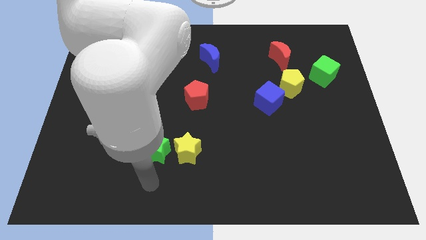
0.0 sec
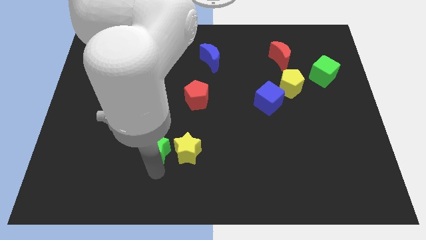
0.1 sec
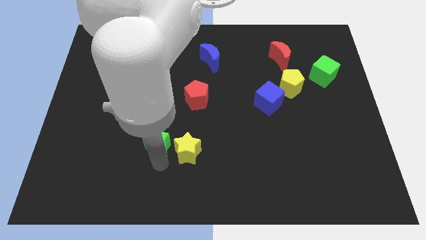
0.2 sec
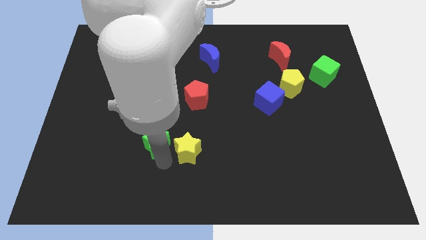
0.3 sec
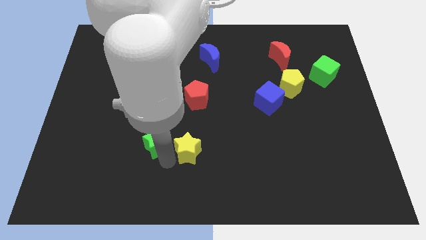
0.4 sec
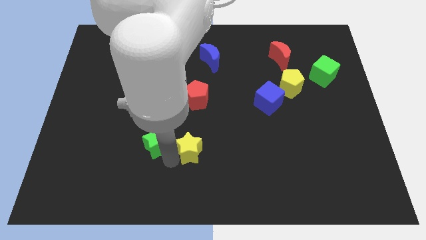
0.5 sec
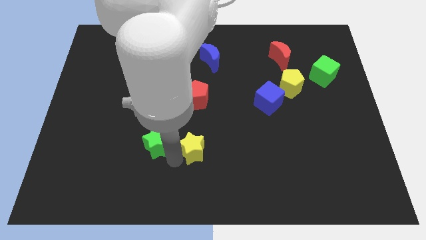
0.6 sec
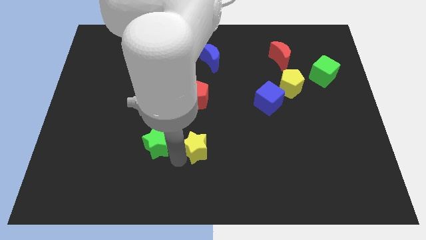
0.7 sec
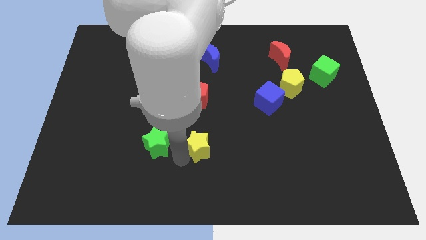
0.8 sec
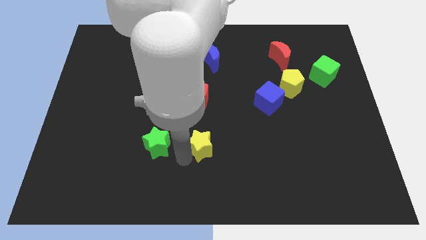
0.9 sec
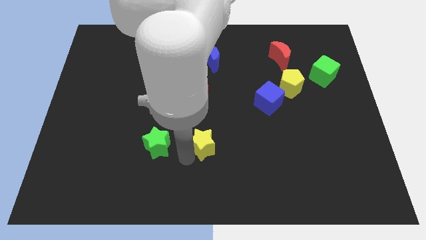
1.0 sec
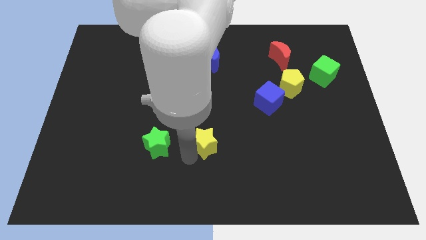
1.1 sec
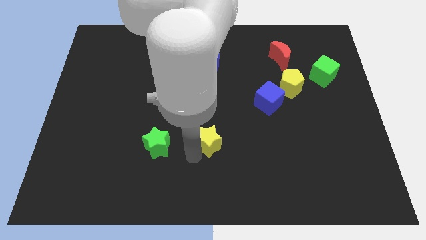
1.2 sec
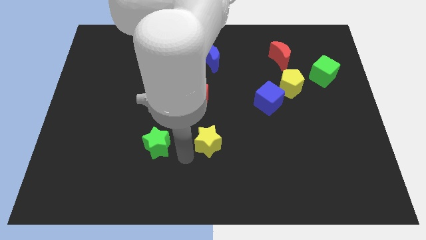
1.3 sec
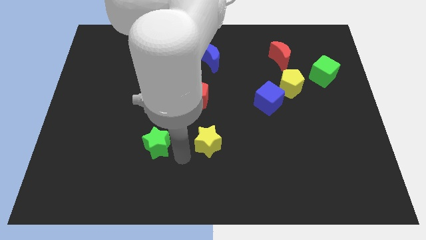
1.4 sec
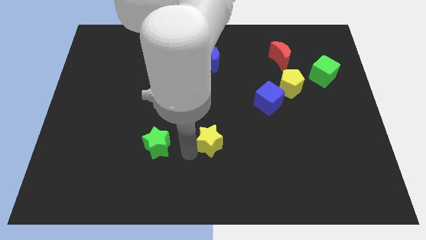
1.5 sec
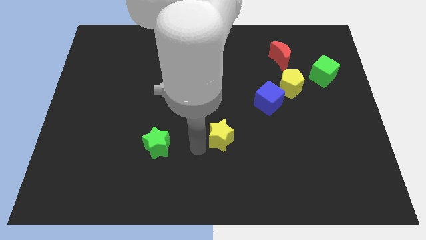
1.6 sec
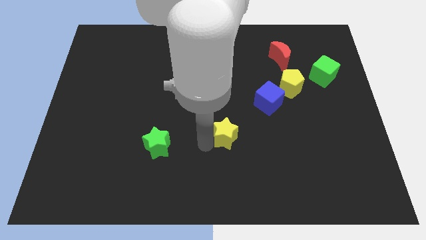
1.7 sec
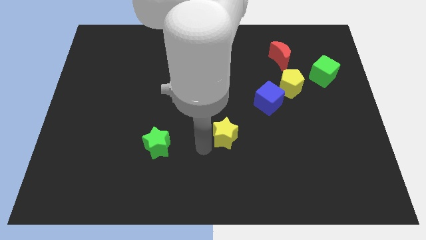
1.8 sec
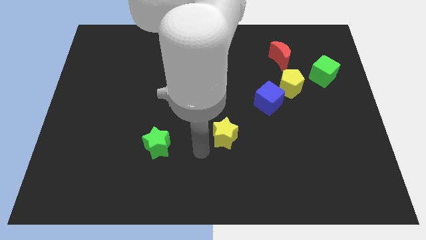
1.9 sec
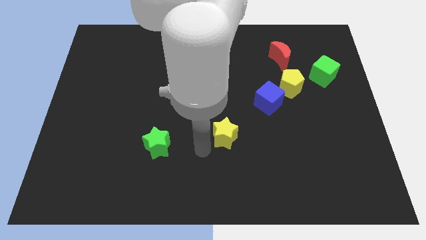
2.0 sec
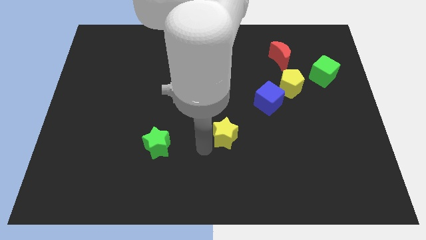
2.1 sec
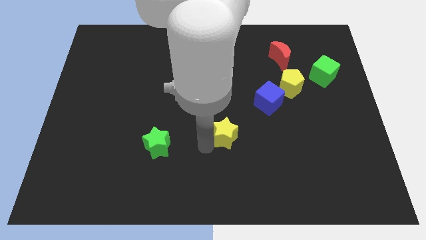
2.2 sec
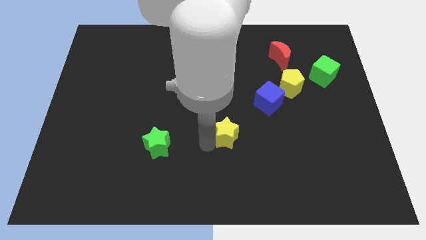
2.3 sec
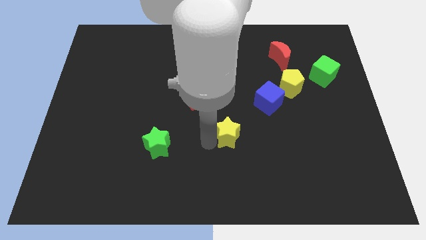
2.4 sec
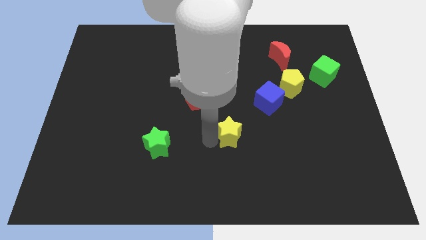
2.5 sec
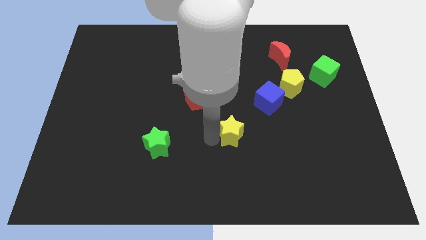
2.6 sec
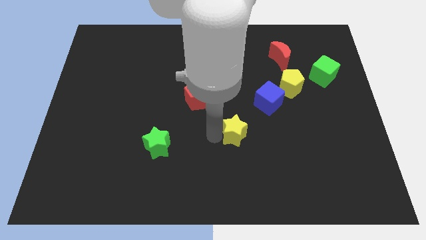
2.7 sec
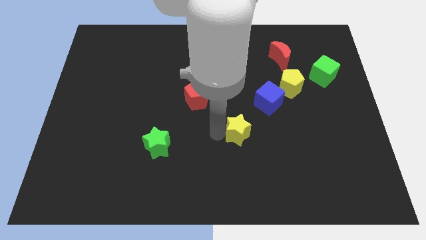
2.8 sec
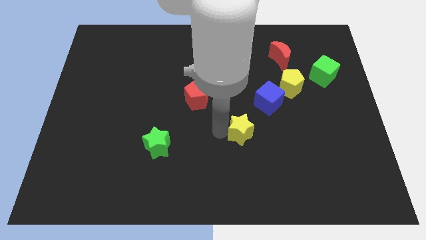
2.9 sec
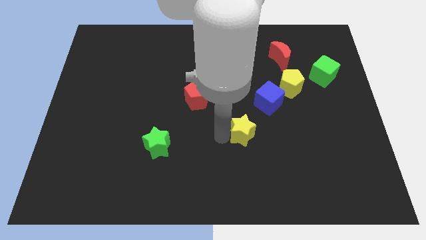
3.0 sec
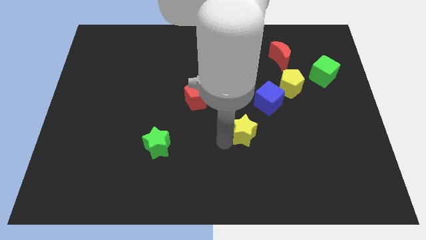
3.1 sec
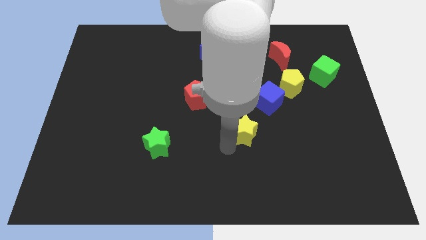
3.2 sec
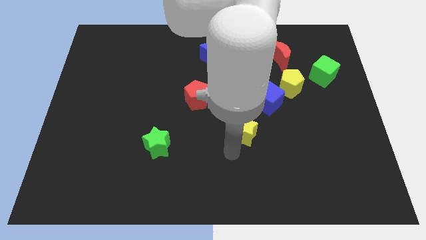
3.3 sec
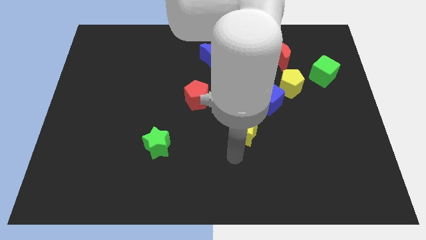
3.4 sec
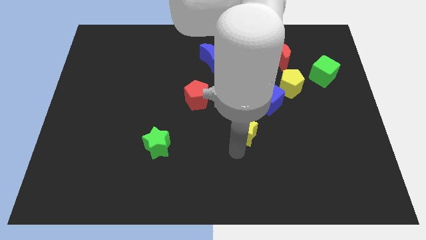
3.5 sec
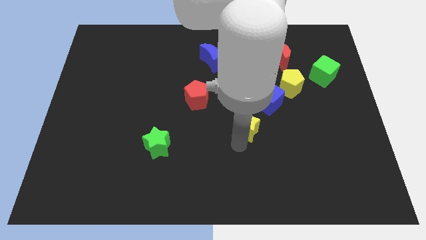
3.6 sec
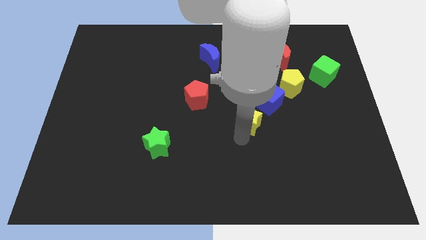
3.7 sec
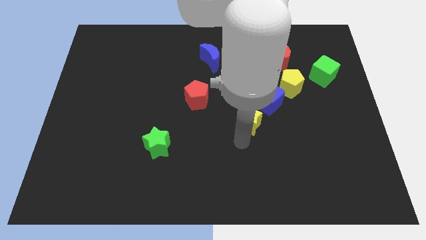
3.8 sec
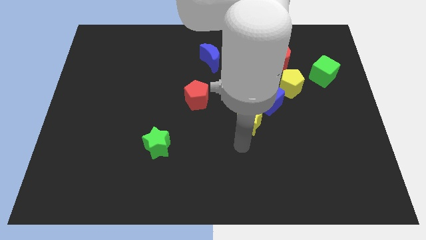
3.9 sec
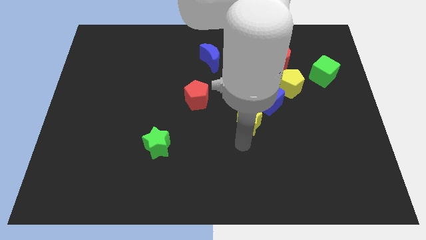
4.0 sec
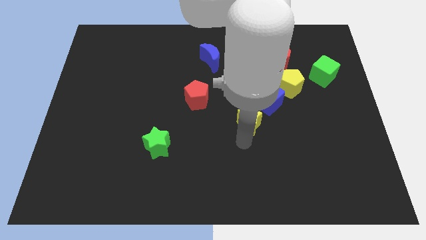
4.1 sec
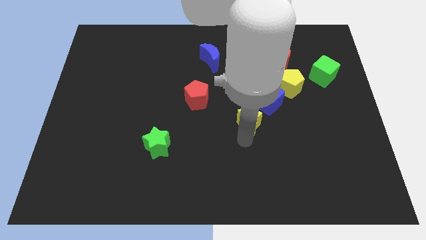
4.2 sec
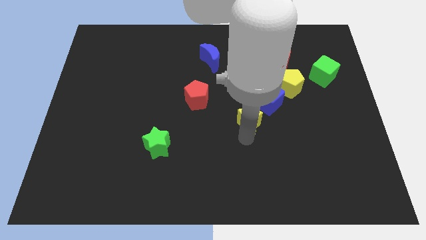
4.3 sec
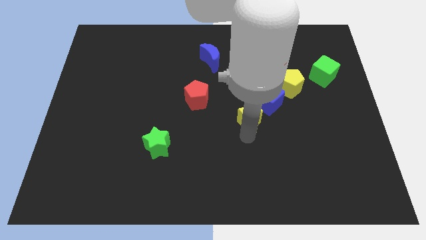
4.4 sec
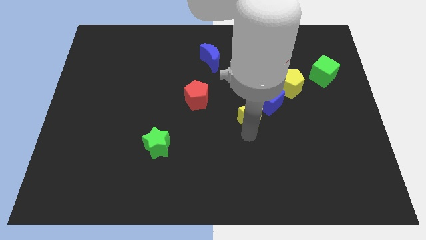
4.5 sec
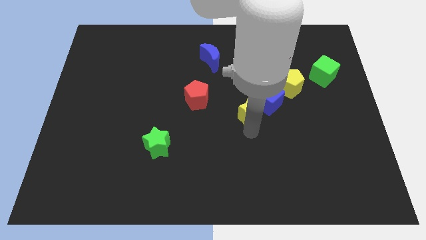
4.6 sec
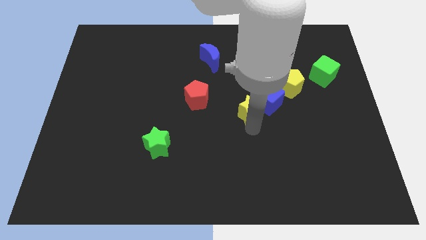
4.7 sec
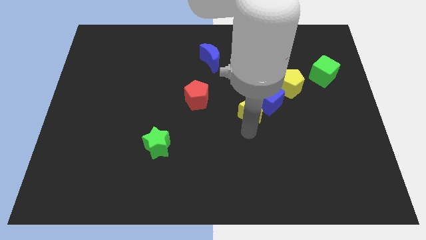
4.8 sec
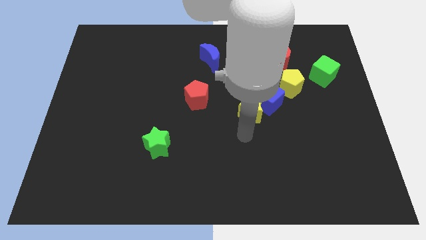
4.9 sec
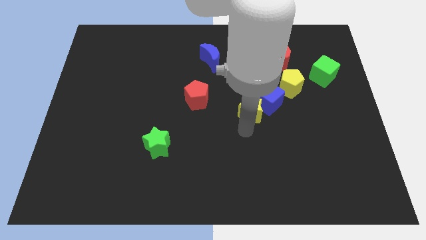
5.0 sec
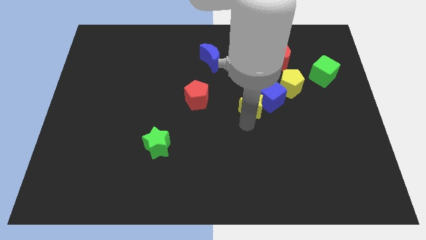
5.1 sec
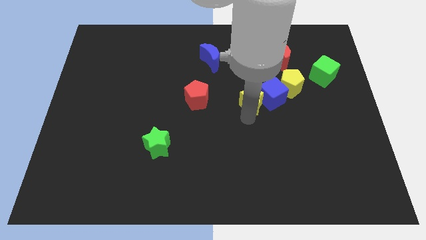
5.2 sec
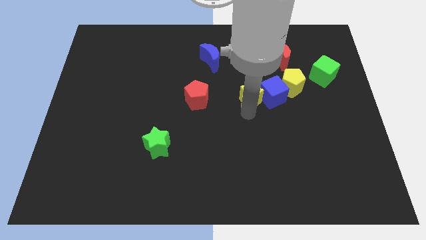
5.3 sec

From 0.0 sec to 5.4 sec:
move the yellow star up and right

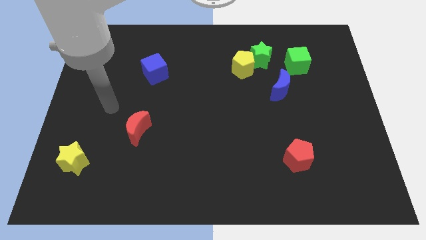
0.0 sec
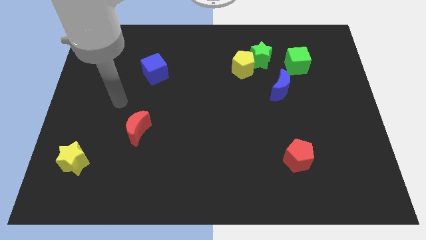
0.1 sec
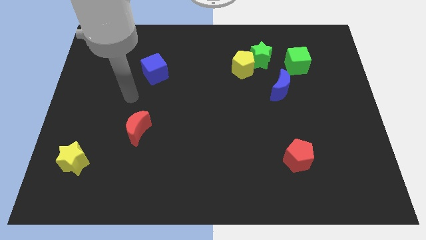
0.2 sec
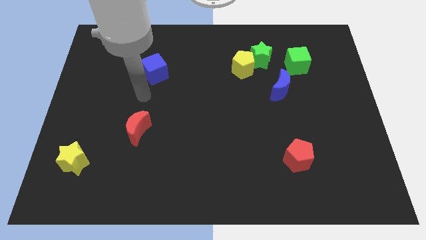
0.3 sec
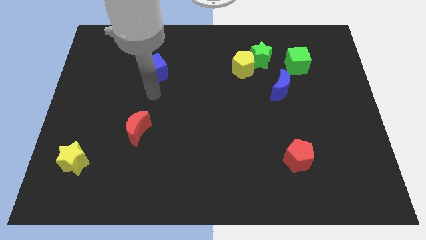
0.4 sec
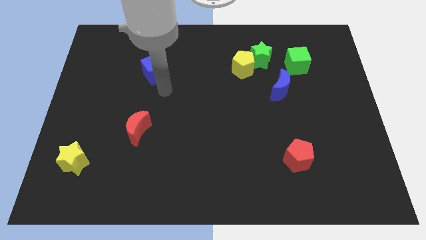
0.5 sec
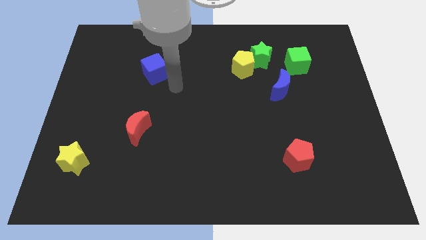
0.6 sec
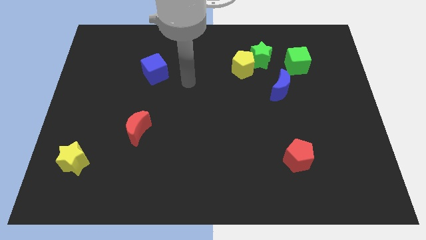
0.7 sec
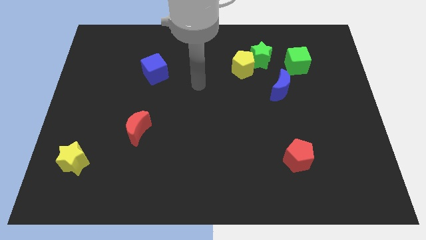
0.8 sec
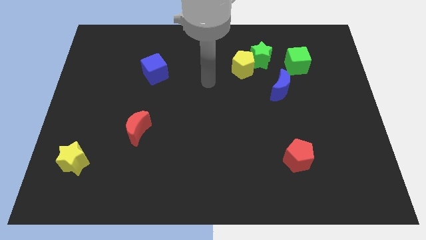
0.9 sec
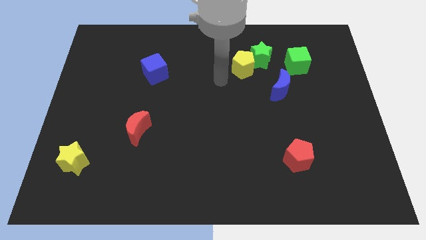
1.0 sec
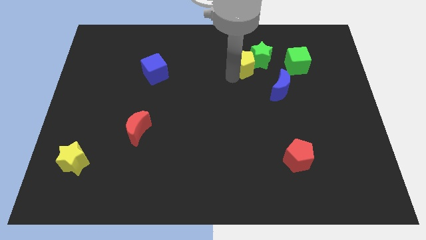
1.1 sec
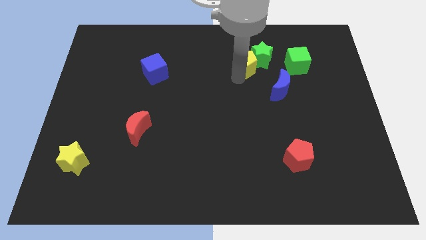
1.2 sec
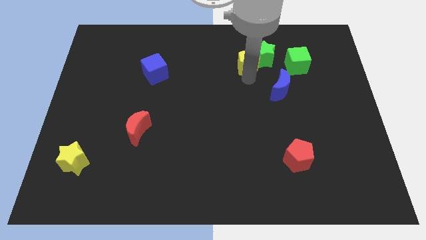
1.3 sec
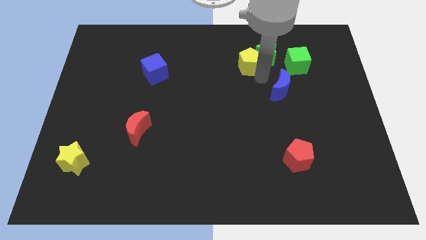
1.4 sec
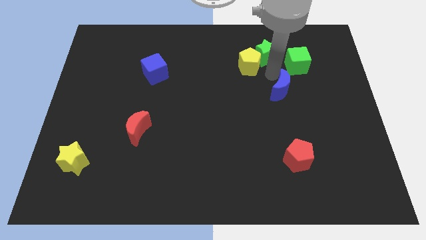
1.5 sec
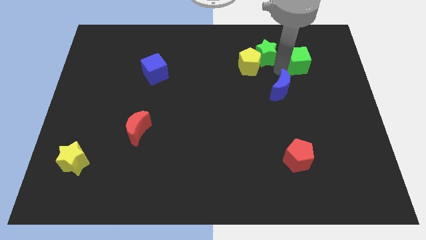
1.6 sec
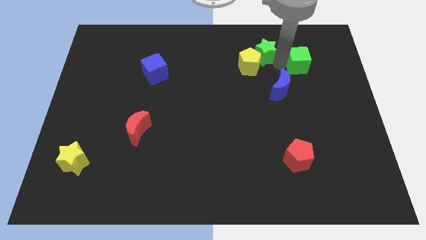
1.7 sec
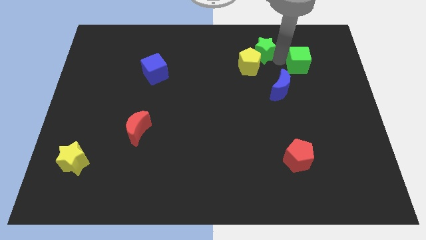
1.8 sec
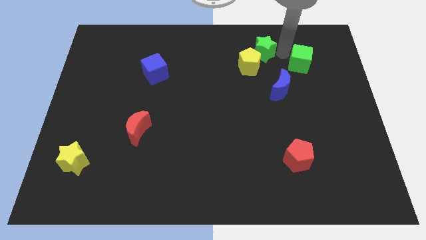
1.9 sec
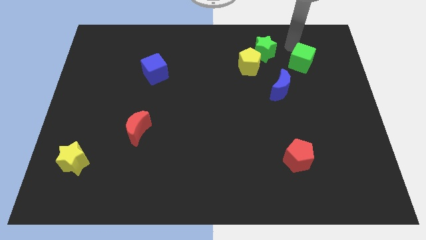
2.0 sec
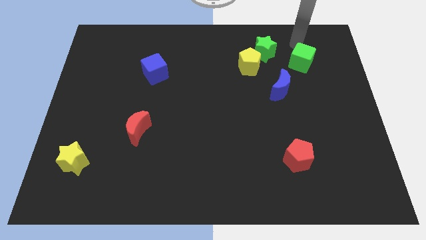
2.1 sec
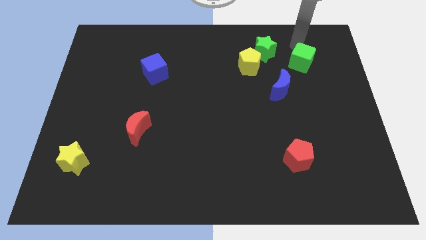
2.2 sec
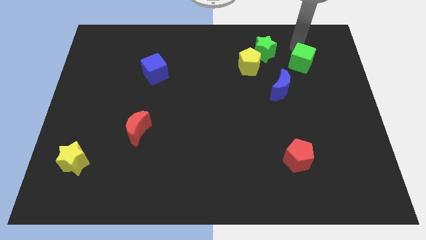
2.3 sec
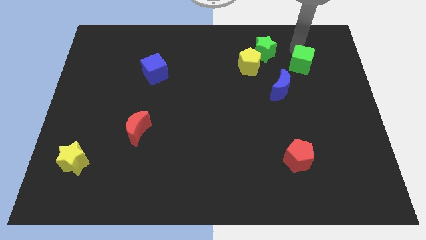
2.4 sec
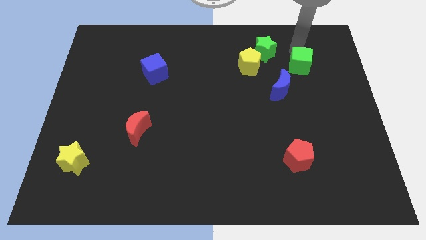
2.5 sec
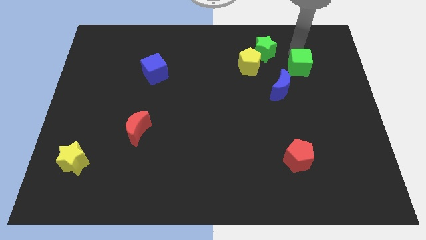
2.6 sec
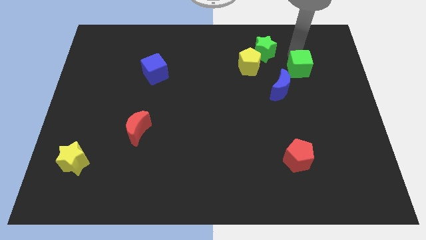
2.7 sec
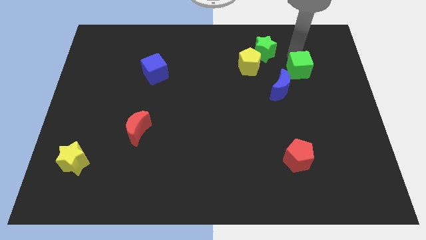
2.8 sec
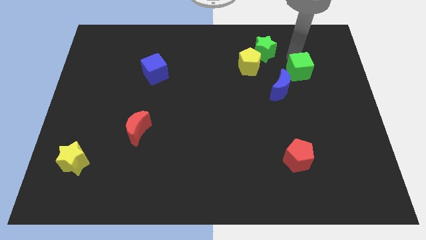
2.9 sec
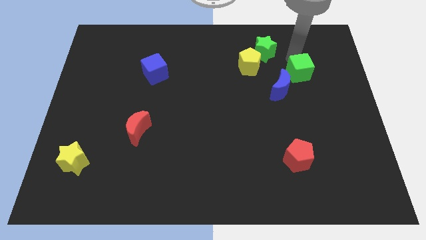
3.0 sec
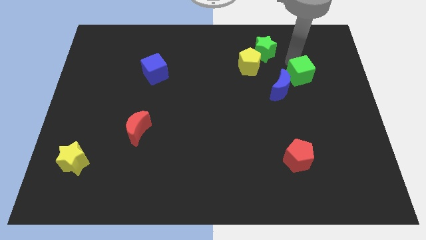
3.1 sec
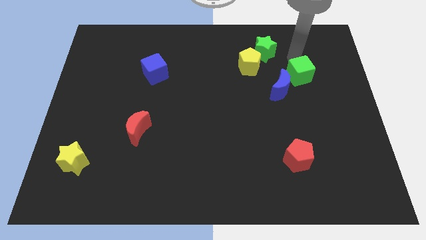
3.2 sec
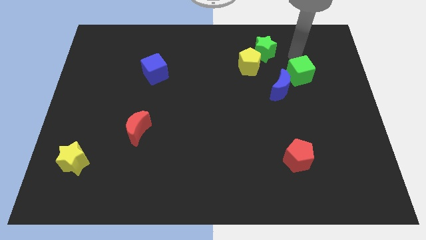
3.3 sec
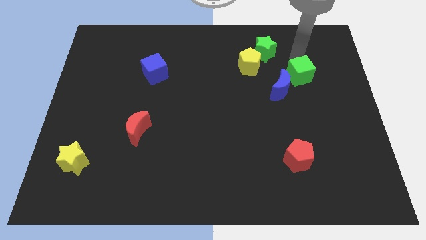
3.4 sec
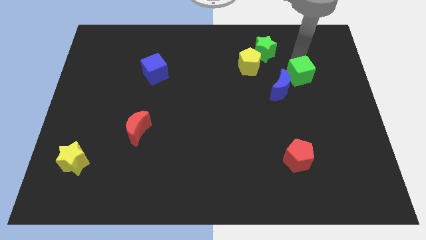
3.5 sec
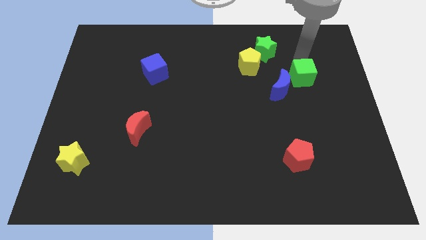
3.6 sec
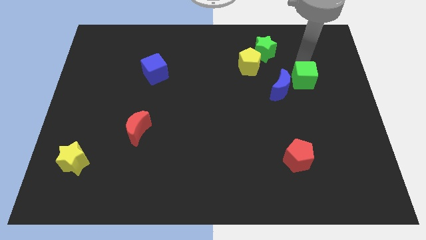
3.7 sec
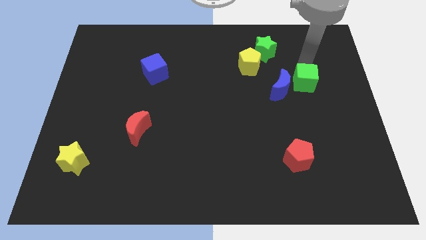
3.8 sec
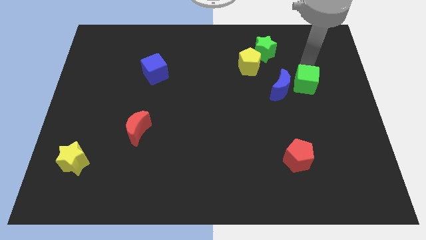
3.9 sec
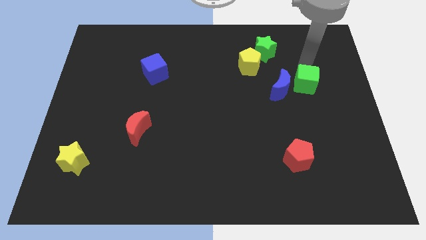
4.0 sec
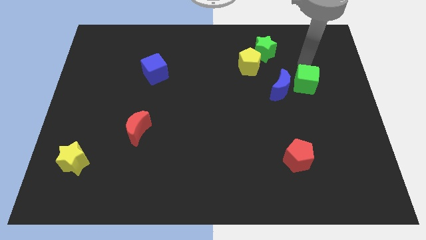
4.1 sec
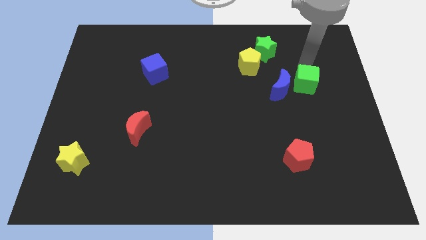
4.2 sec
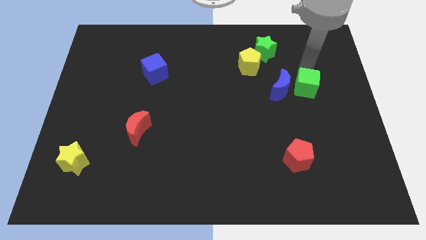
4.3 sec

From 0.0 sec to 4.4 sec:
slightly move the green cube down
